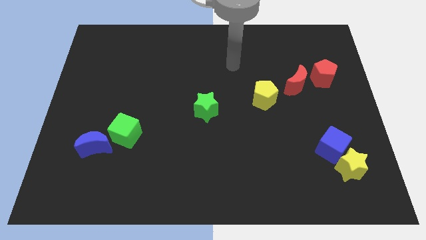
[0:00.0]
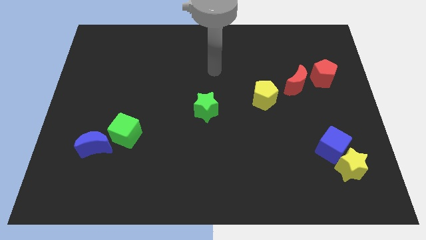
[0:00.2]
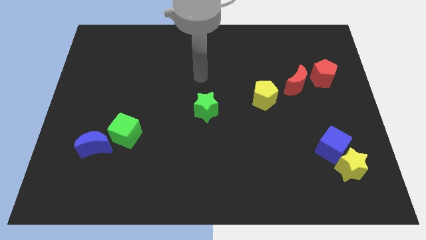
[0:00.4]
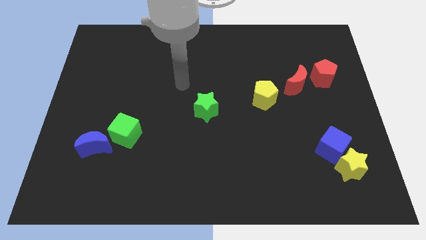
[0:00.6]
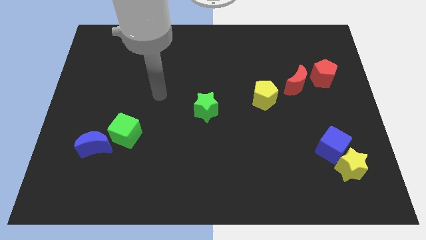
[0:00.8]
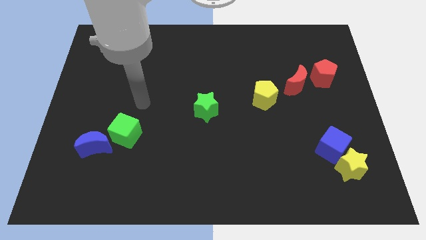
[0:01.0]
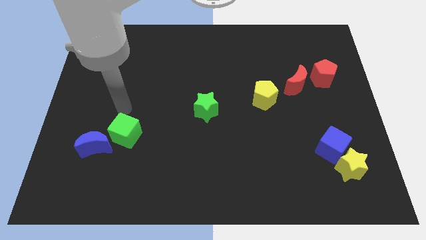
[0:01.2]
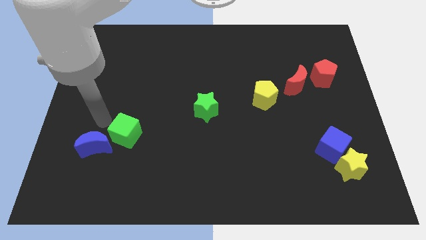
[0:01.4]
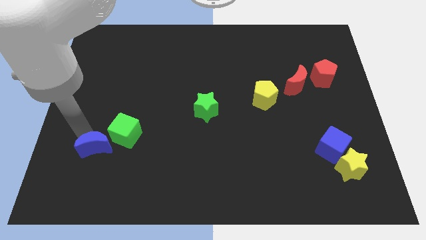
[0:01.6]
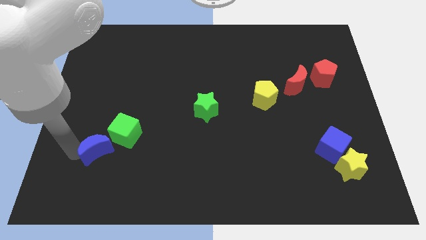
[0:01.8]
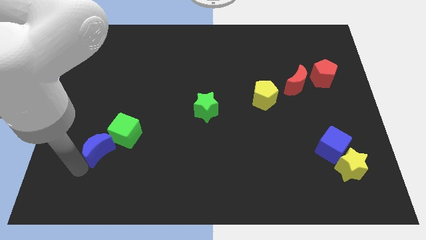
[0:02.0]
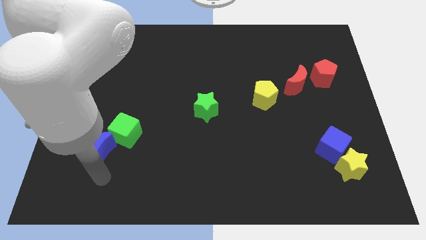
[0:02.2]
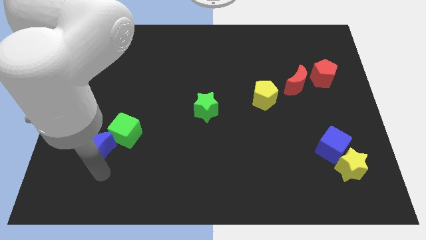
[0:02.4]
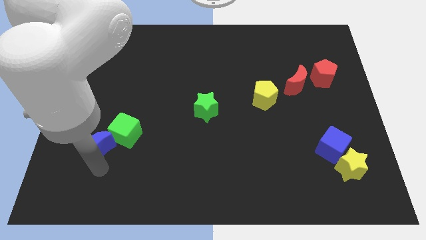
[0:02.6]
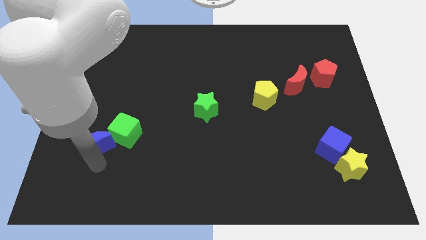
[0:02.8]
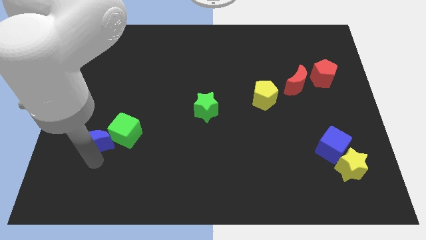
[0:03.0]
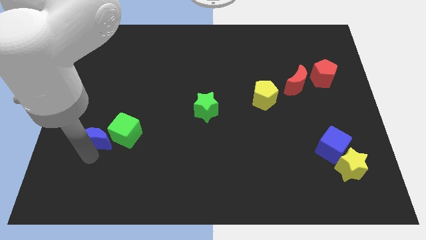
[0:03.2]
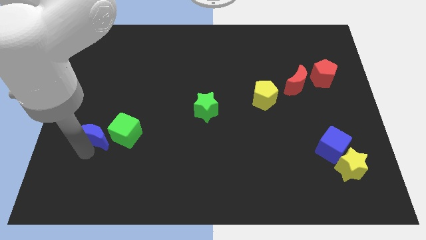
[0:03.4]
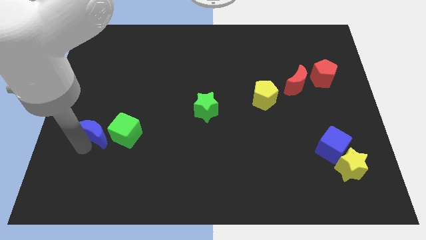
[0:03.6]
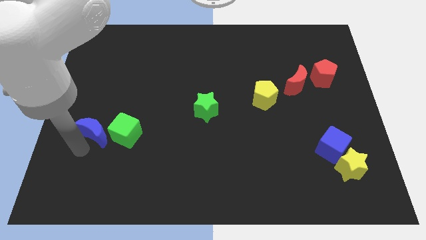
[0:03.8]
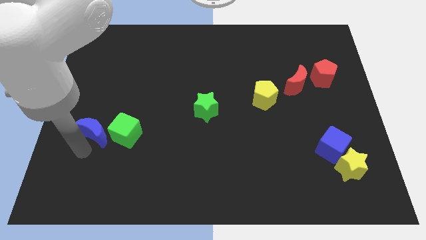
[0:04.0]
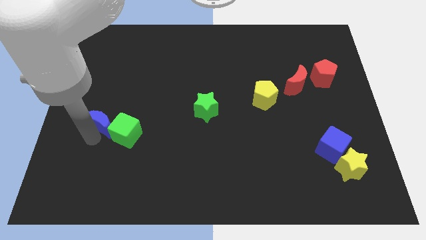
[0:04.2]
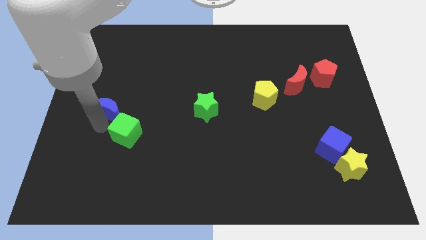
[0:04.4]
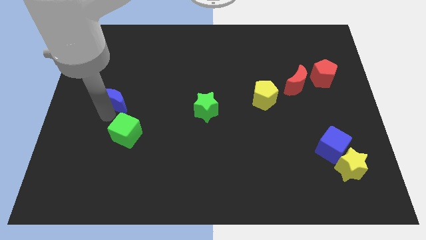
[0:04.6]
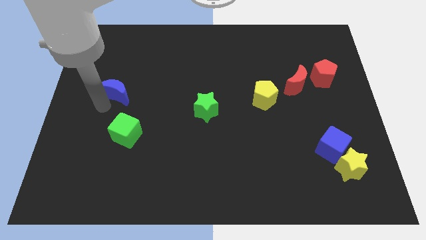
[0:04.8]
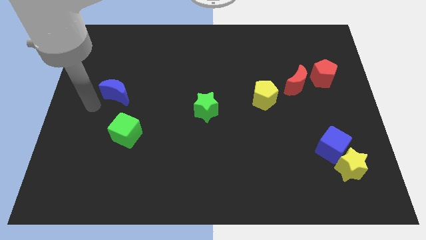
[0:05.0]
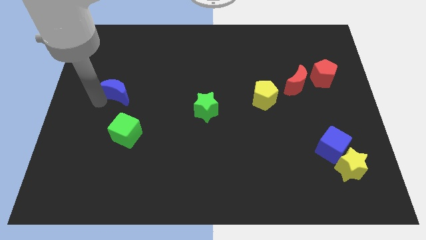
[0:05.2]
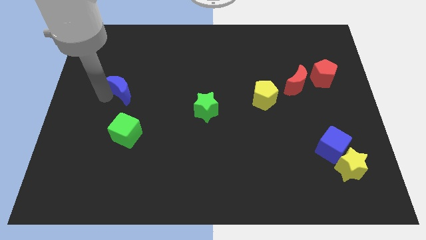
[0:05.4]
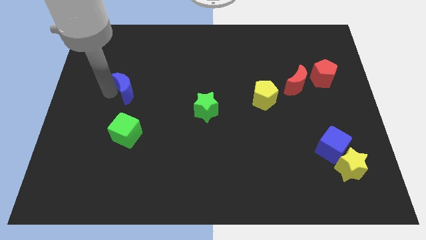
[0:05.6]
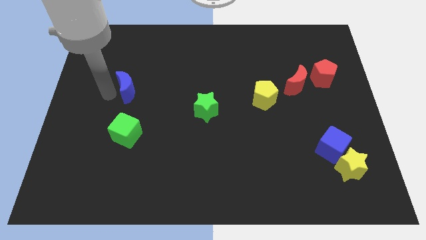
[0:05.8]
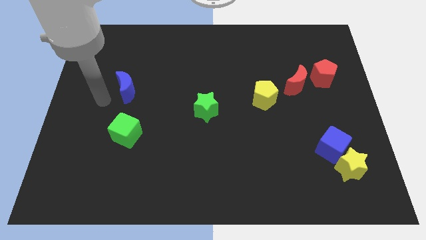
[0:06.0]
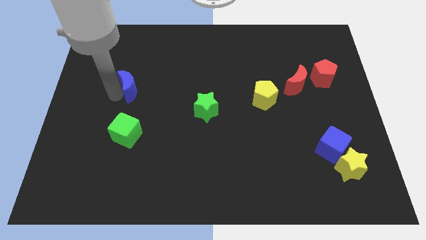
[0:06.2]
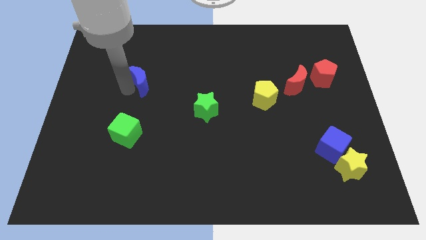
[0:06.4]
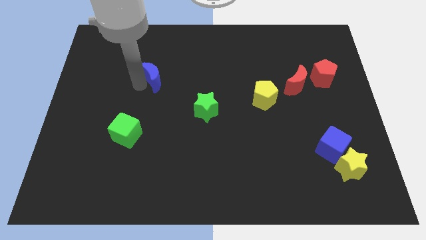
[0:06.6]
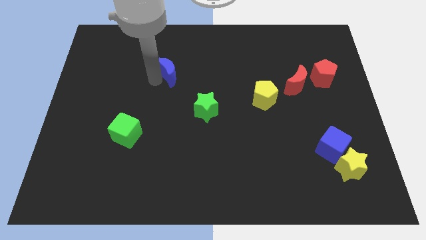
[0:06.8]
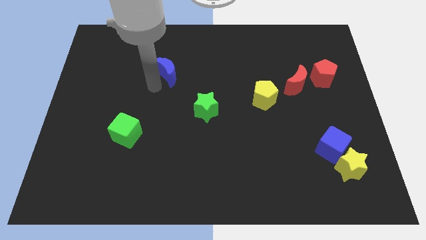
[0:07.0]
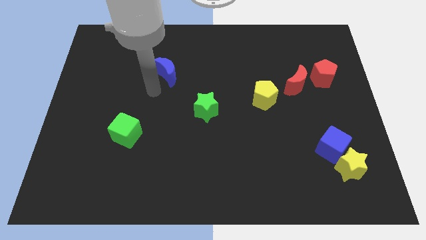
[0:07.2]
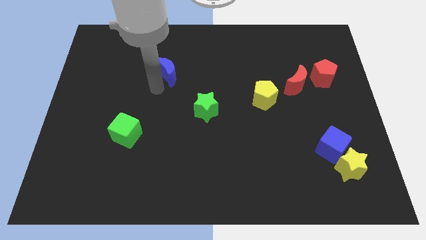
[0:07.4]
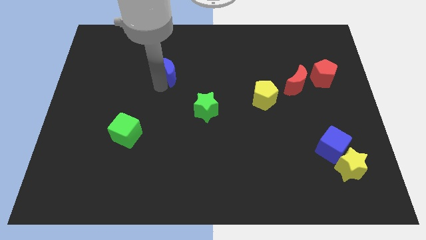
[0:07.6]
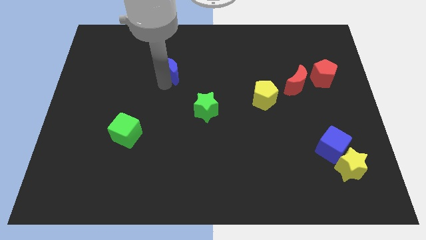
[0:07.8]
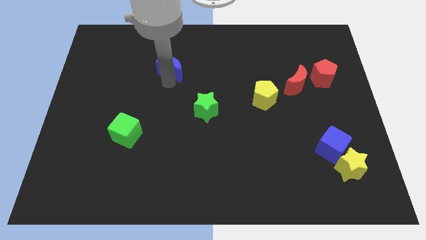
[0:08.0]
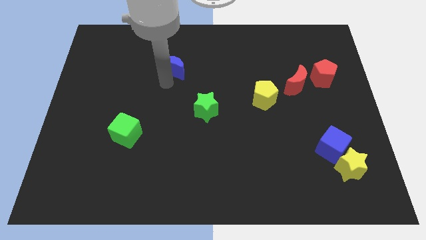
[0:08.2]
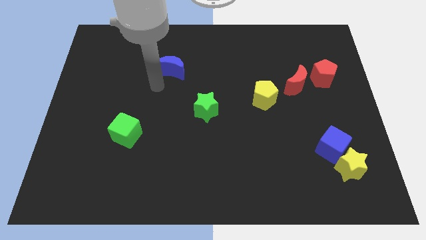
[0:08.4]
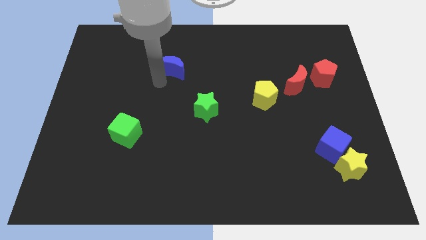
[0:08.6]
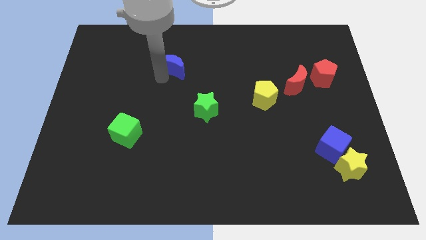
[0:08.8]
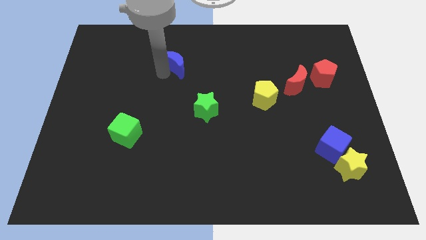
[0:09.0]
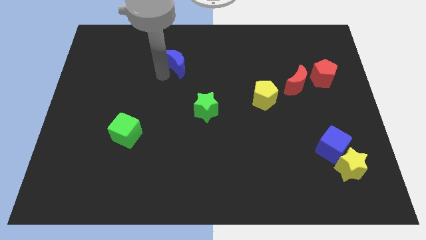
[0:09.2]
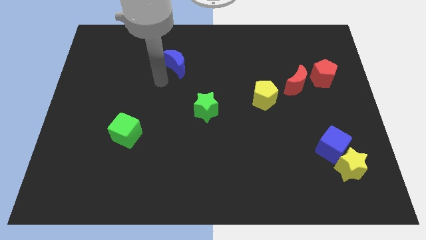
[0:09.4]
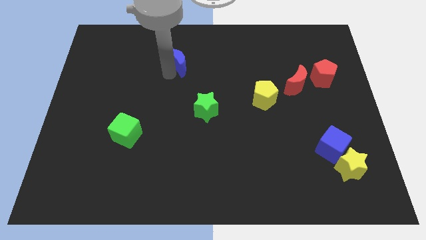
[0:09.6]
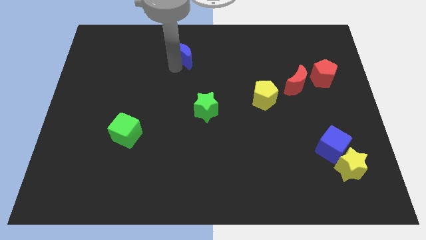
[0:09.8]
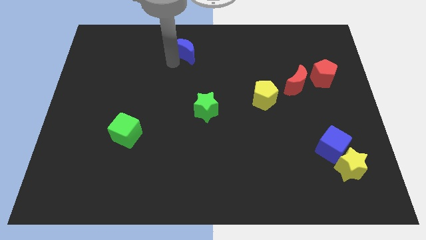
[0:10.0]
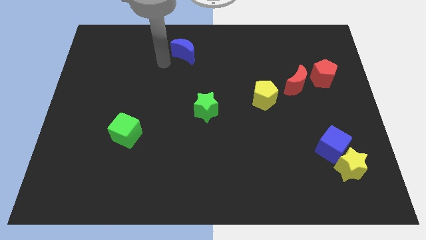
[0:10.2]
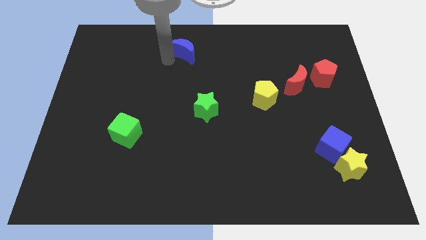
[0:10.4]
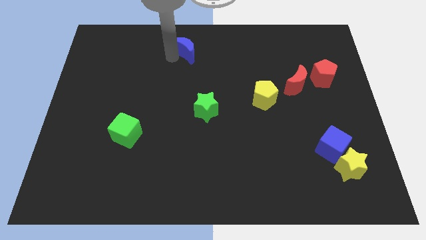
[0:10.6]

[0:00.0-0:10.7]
push the blue moon to the towards your base
